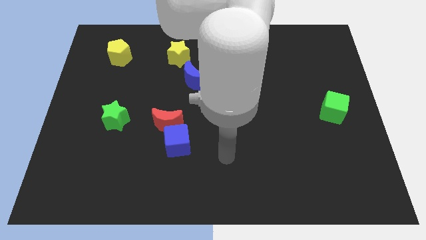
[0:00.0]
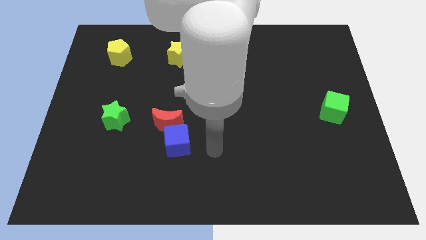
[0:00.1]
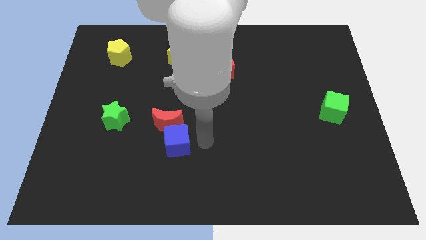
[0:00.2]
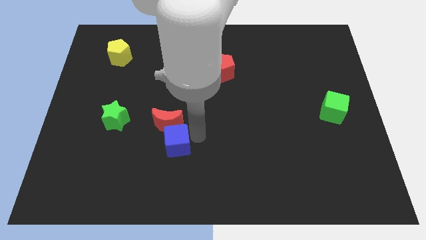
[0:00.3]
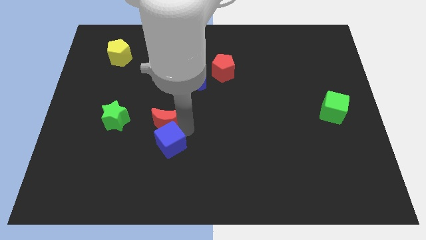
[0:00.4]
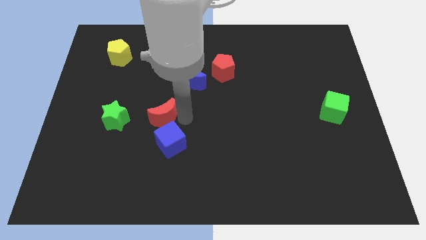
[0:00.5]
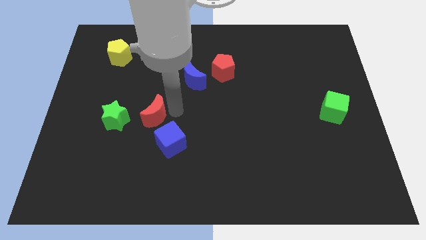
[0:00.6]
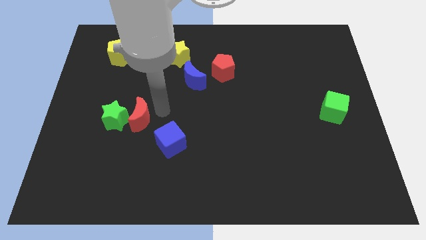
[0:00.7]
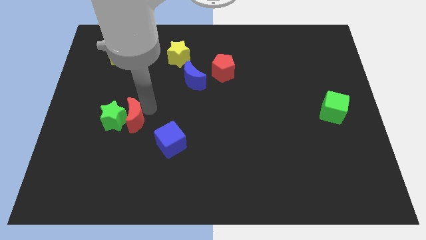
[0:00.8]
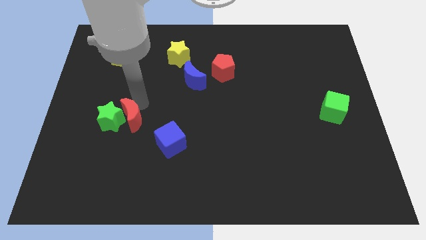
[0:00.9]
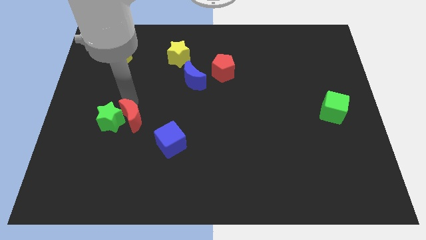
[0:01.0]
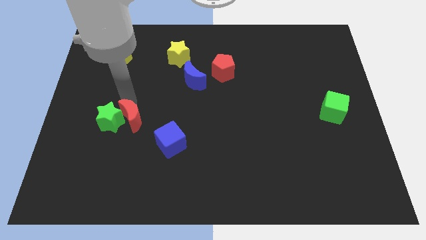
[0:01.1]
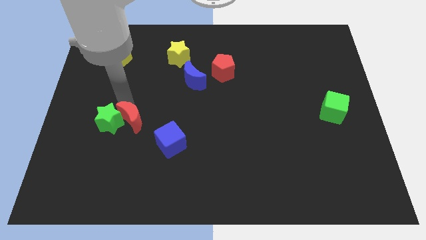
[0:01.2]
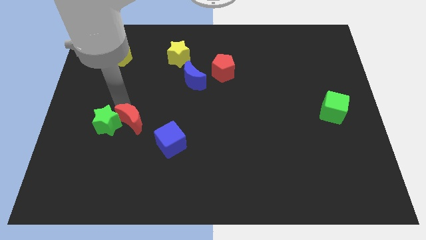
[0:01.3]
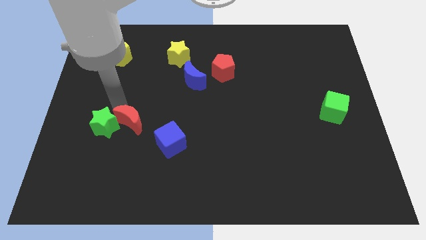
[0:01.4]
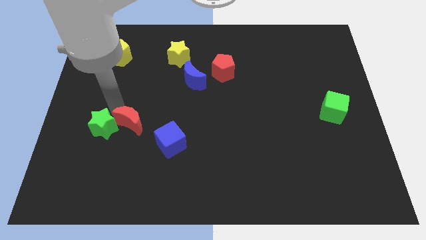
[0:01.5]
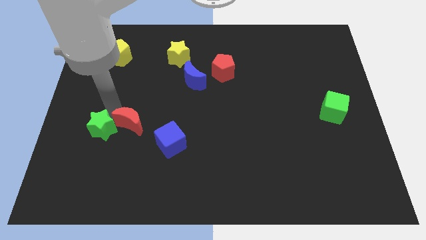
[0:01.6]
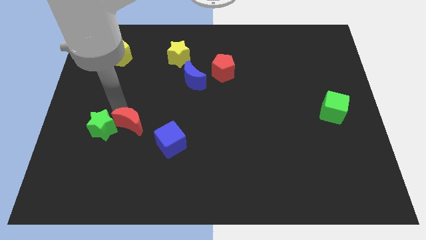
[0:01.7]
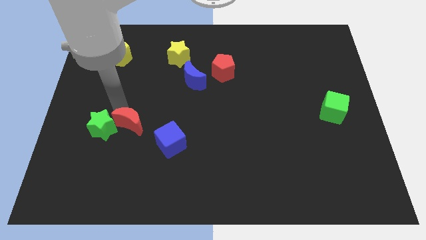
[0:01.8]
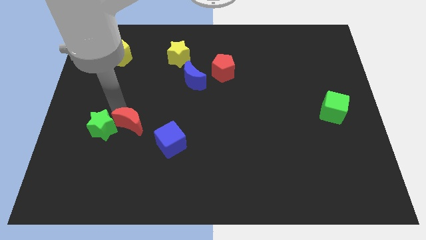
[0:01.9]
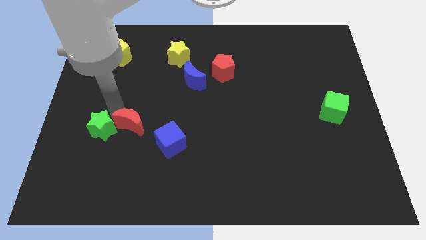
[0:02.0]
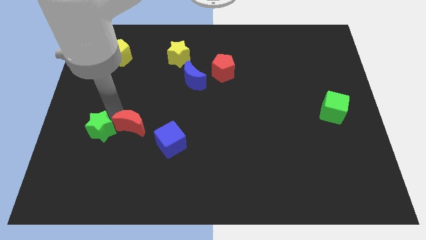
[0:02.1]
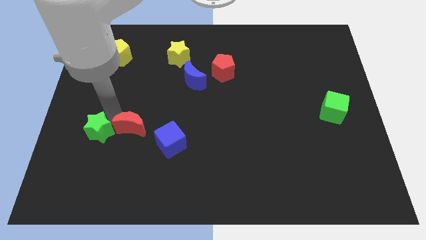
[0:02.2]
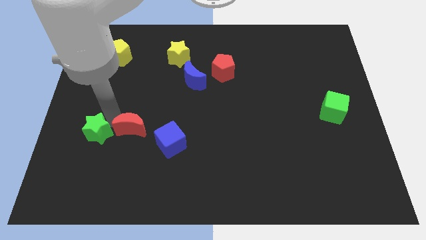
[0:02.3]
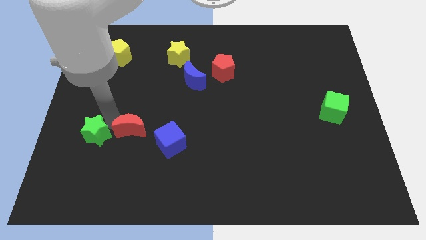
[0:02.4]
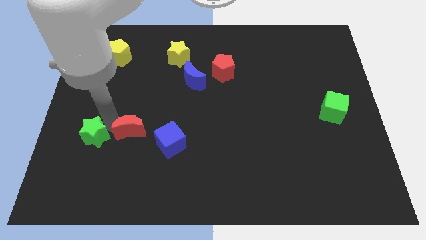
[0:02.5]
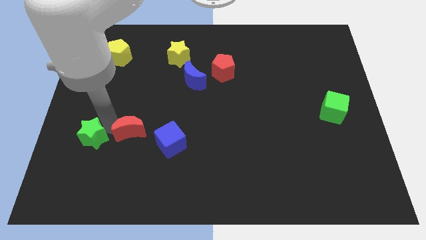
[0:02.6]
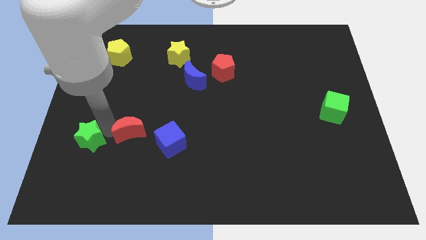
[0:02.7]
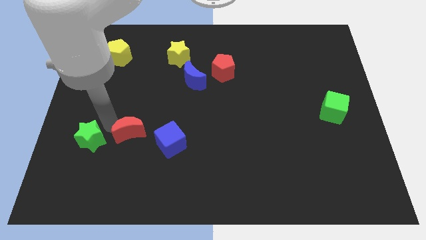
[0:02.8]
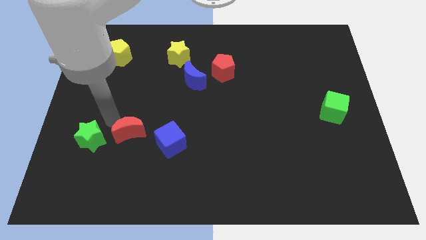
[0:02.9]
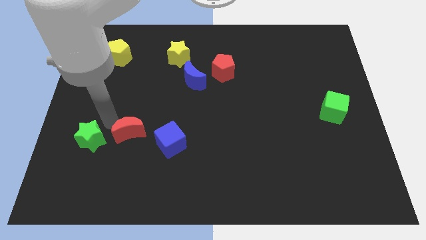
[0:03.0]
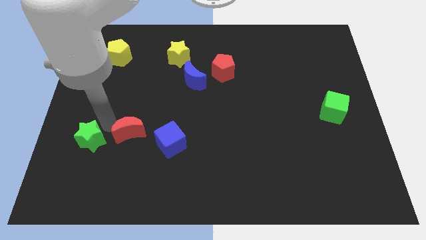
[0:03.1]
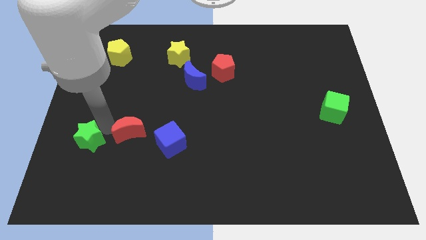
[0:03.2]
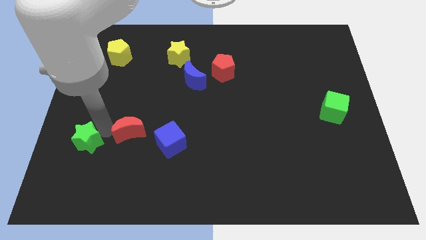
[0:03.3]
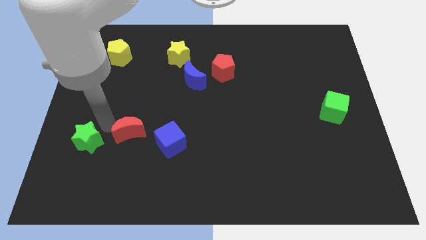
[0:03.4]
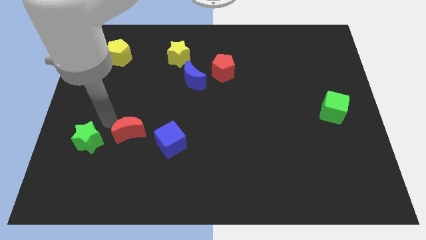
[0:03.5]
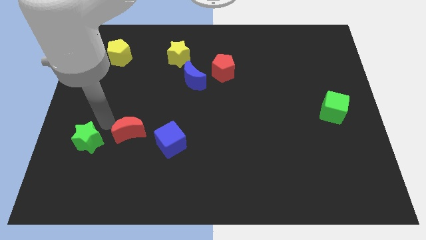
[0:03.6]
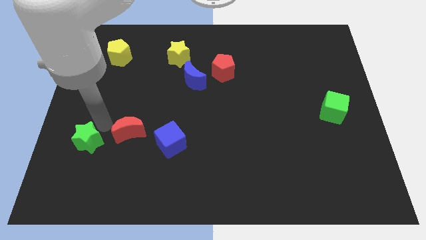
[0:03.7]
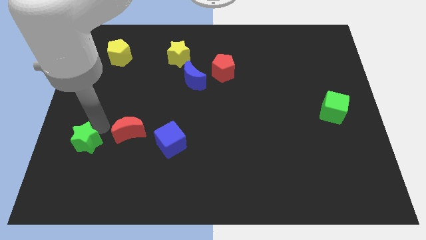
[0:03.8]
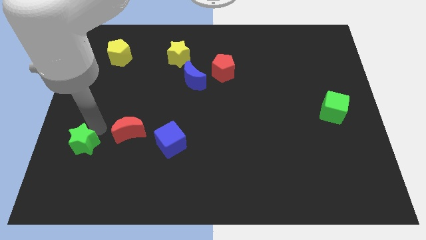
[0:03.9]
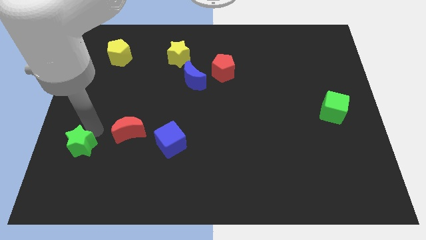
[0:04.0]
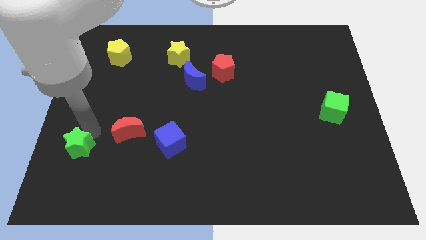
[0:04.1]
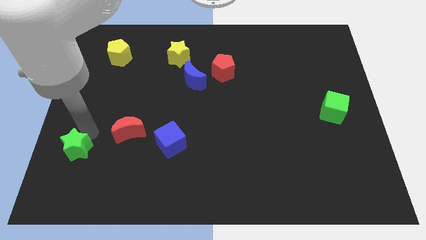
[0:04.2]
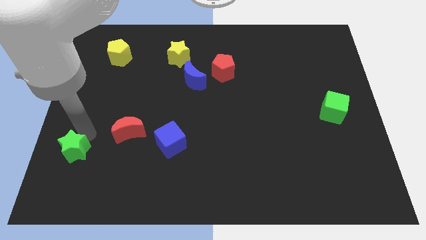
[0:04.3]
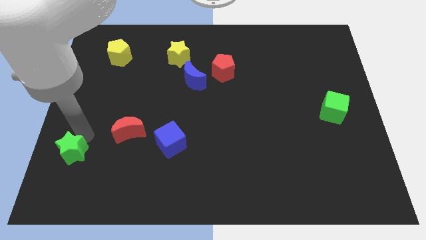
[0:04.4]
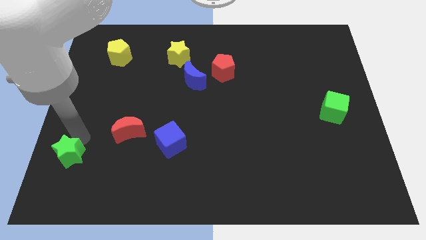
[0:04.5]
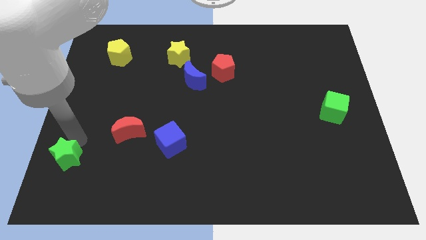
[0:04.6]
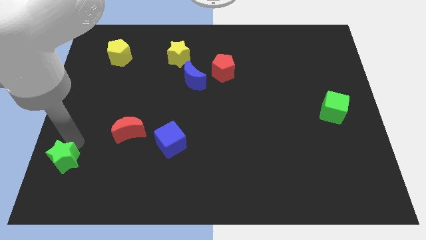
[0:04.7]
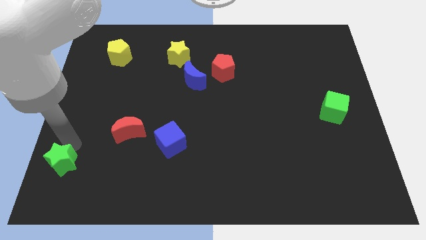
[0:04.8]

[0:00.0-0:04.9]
move the green star to the lower left corner

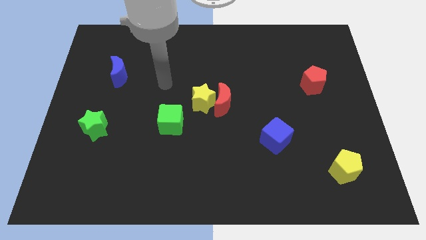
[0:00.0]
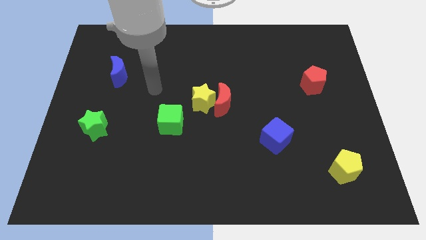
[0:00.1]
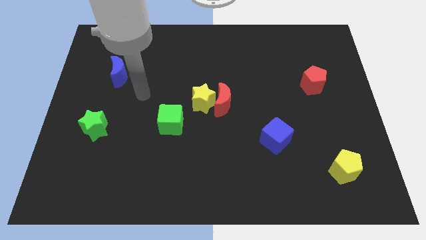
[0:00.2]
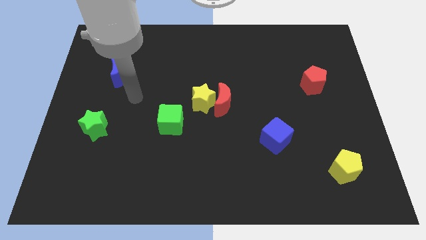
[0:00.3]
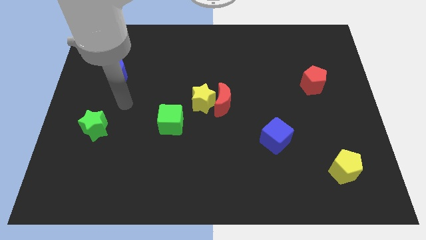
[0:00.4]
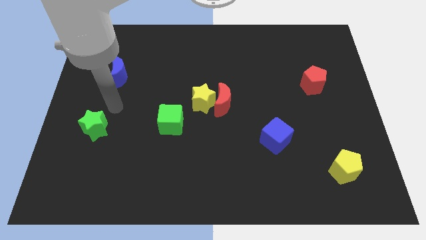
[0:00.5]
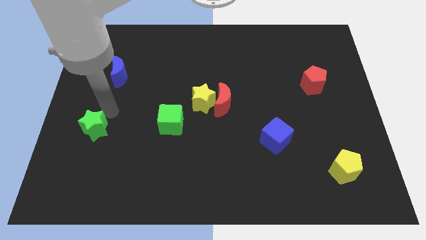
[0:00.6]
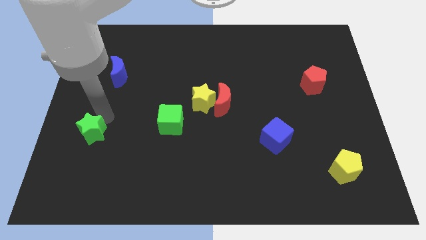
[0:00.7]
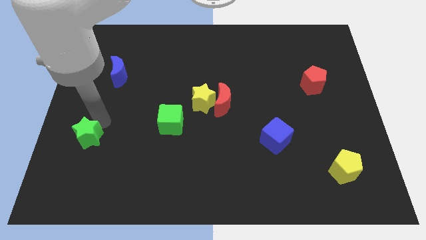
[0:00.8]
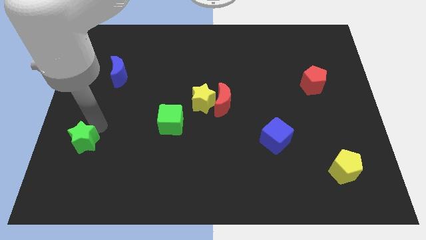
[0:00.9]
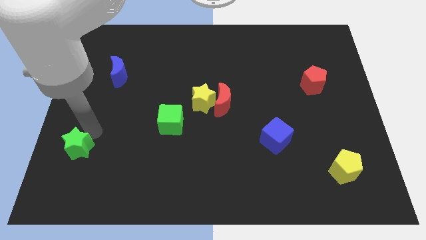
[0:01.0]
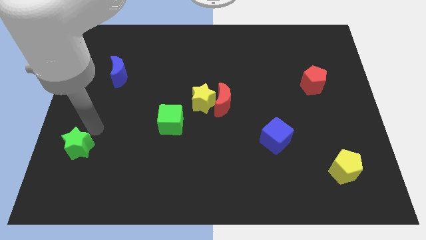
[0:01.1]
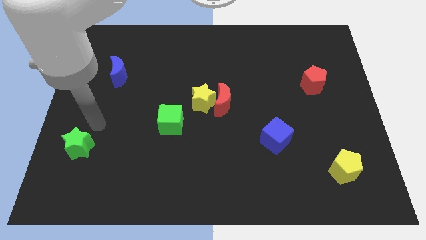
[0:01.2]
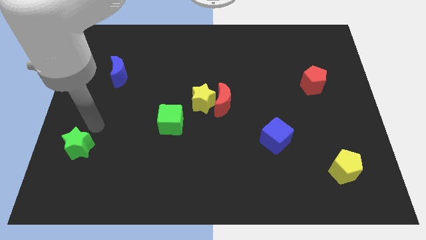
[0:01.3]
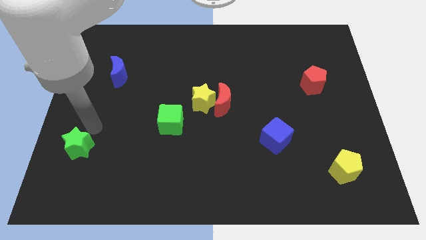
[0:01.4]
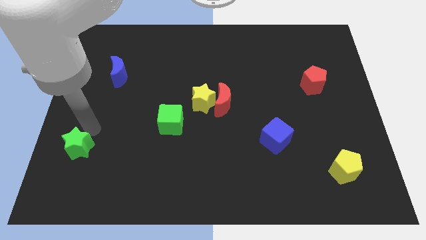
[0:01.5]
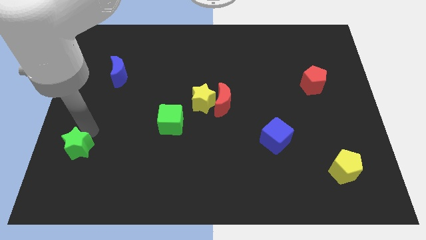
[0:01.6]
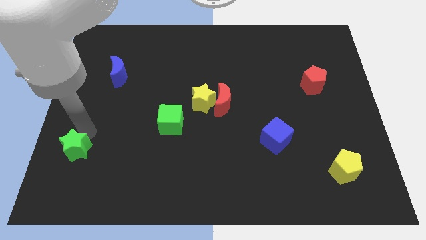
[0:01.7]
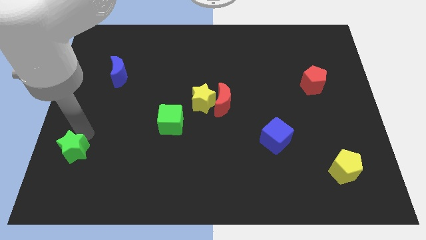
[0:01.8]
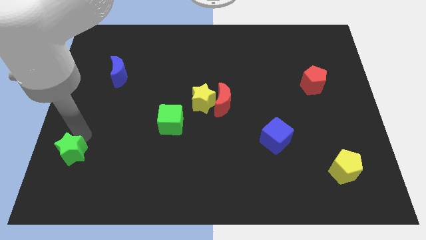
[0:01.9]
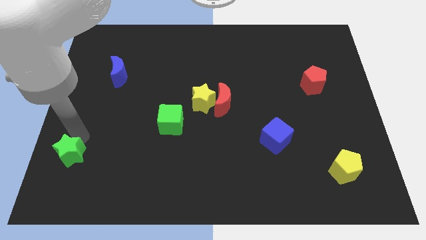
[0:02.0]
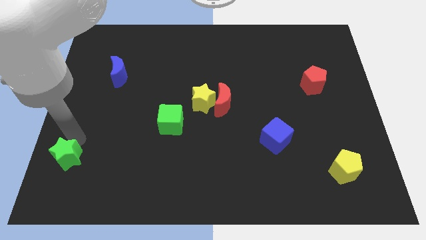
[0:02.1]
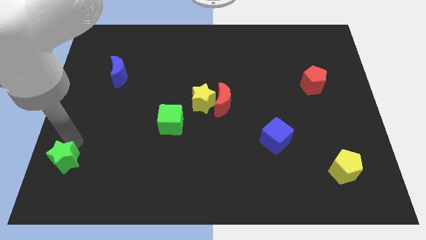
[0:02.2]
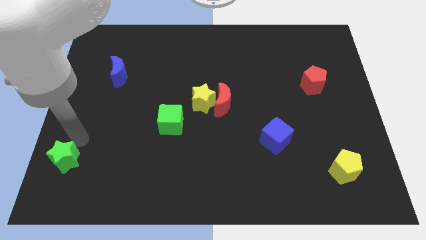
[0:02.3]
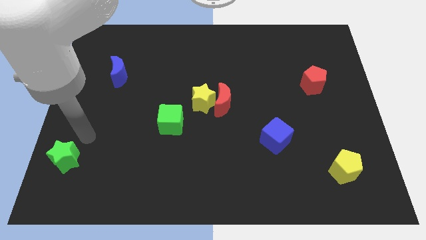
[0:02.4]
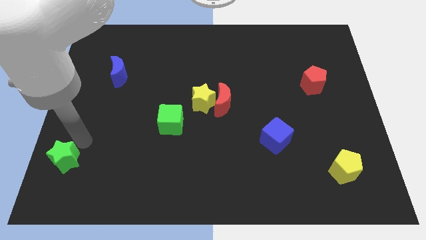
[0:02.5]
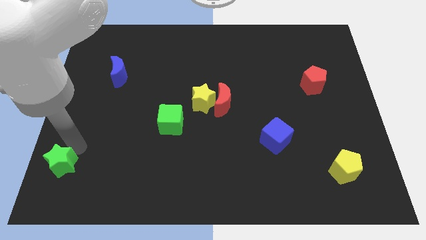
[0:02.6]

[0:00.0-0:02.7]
put the green star to the bottom left of the board
